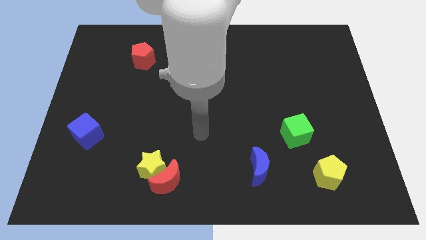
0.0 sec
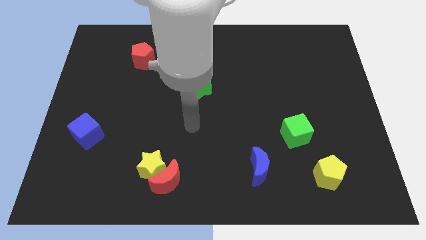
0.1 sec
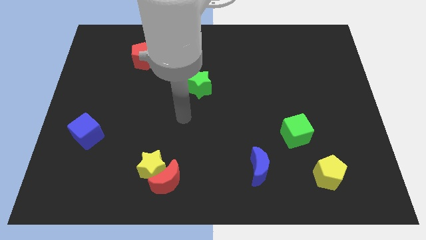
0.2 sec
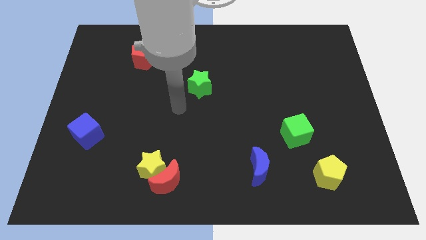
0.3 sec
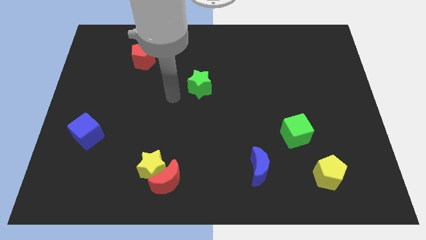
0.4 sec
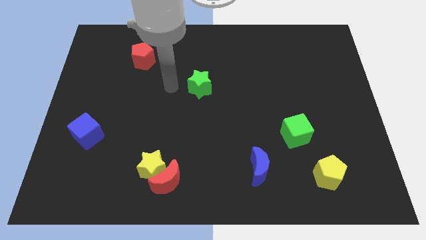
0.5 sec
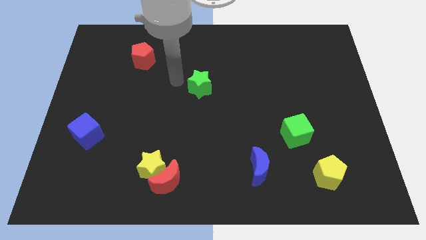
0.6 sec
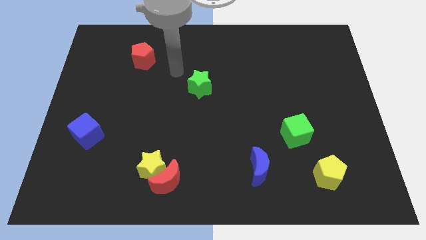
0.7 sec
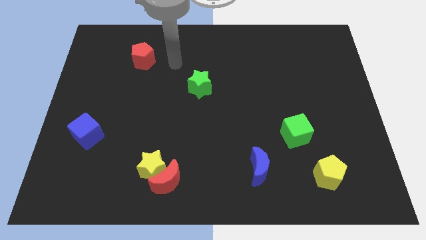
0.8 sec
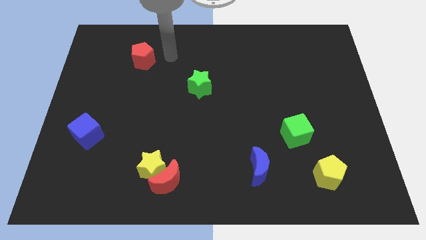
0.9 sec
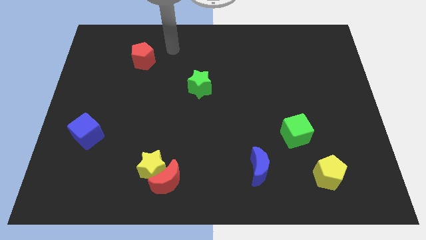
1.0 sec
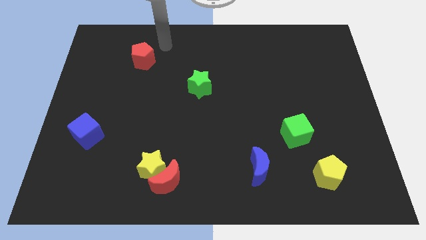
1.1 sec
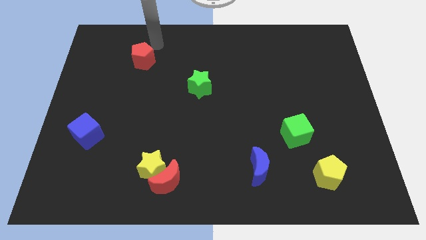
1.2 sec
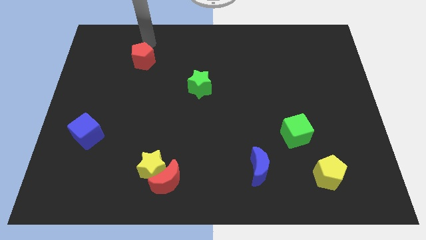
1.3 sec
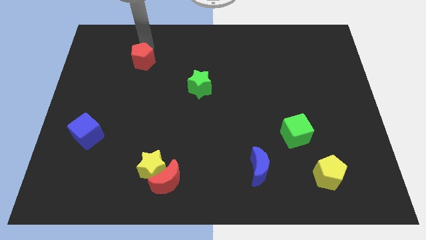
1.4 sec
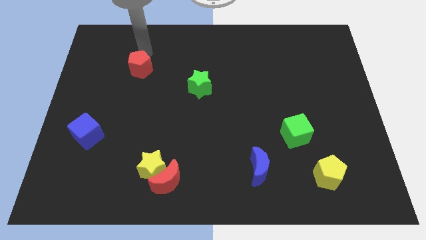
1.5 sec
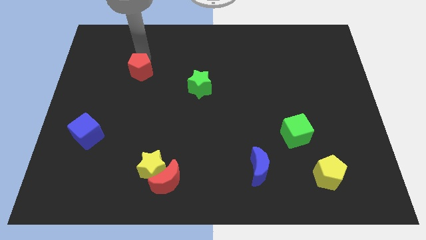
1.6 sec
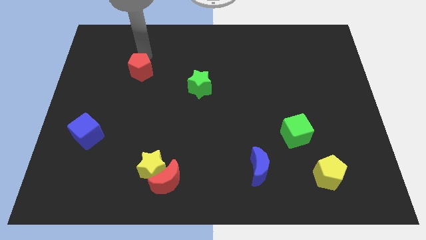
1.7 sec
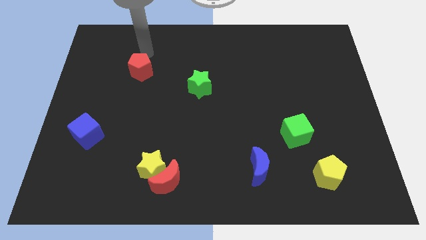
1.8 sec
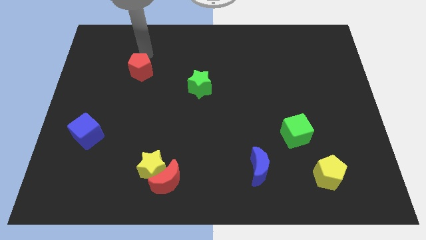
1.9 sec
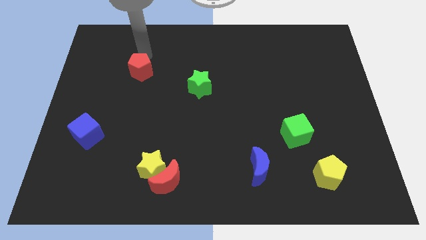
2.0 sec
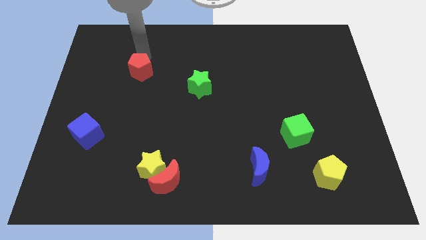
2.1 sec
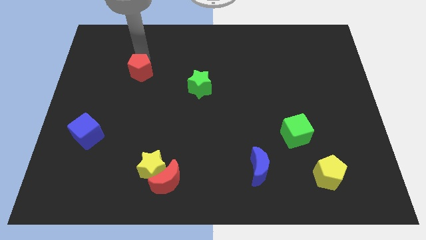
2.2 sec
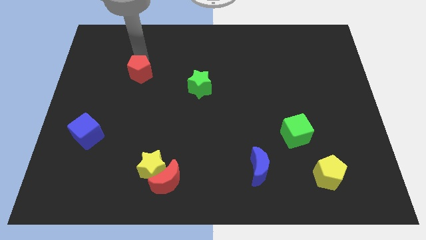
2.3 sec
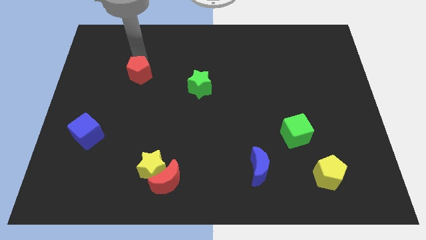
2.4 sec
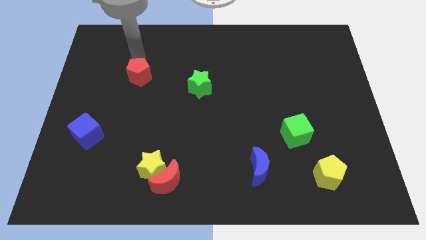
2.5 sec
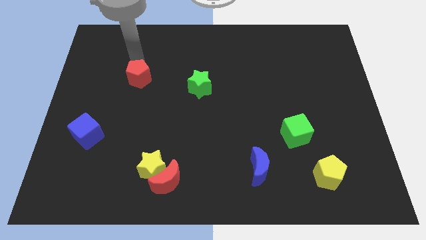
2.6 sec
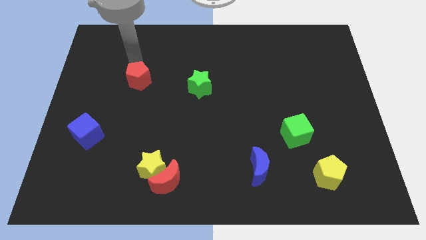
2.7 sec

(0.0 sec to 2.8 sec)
push the red pentagon a little downwards

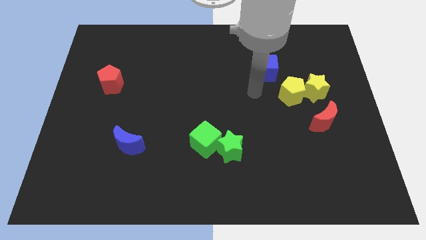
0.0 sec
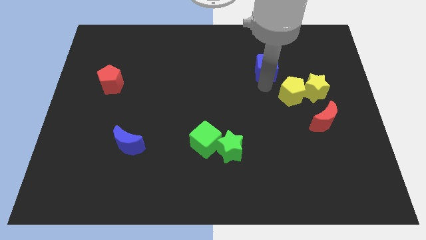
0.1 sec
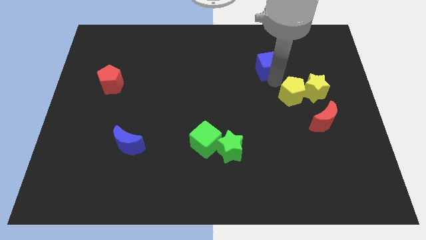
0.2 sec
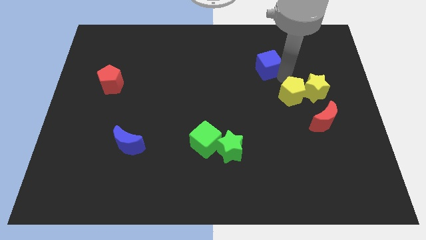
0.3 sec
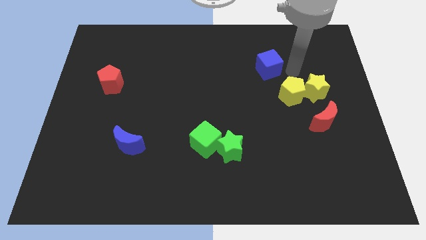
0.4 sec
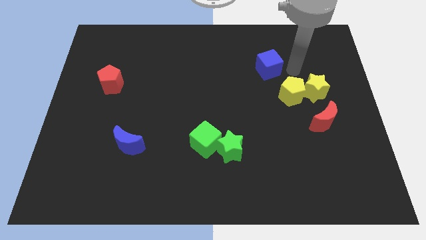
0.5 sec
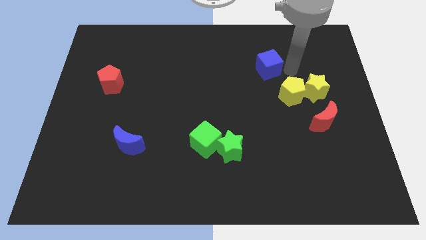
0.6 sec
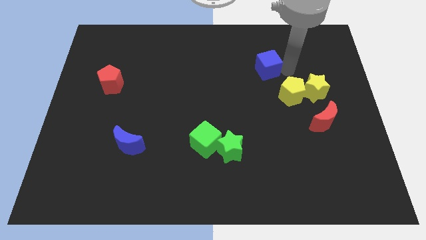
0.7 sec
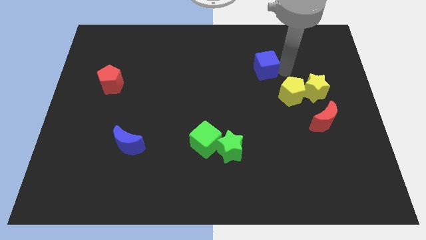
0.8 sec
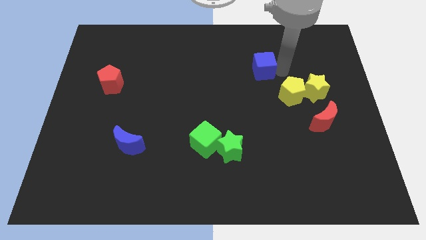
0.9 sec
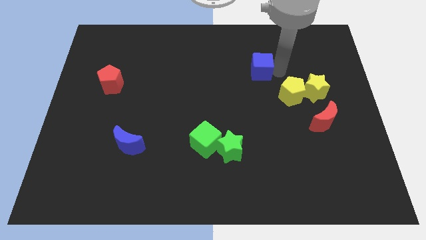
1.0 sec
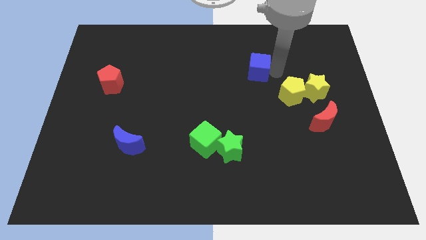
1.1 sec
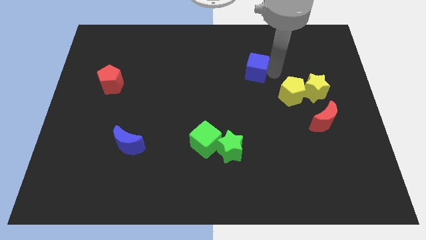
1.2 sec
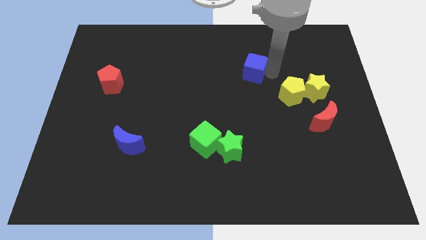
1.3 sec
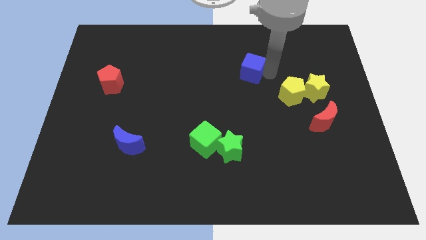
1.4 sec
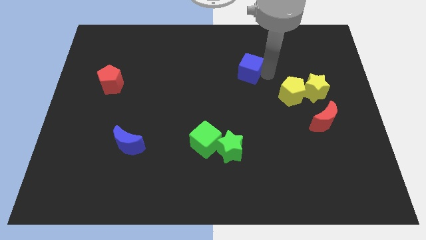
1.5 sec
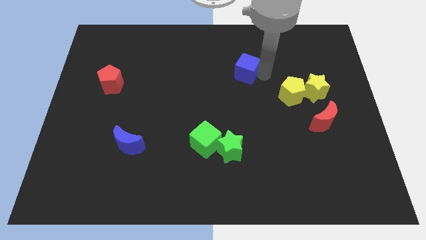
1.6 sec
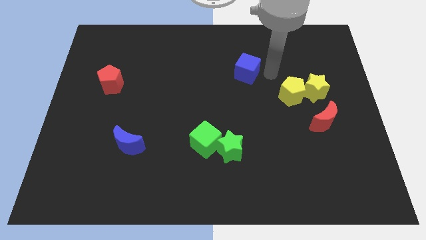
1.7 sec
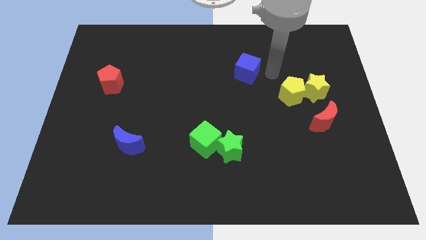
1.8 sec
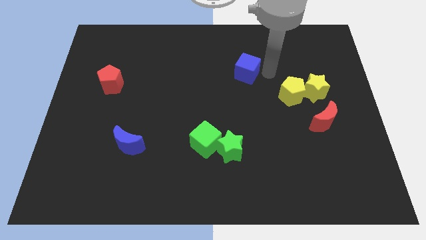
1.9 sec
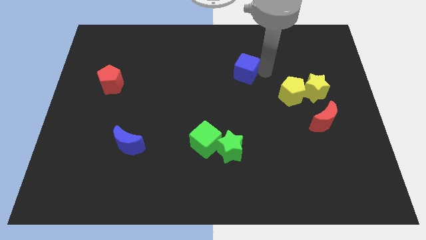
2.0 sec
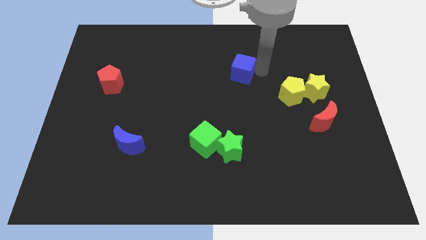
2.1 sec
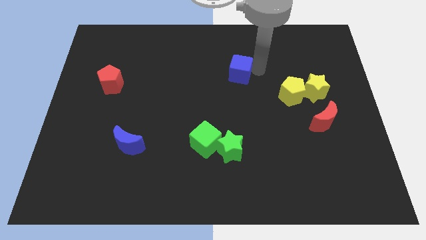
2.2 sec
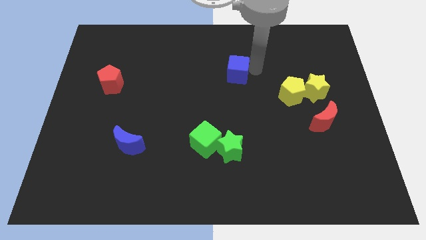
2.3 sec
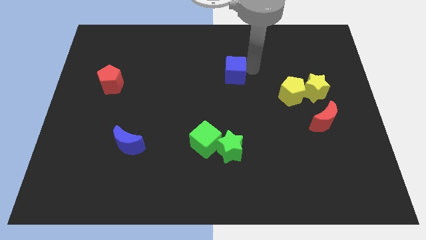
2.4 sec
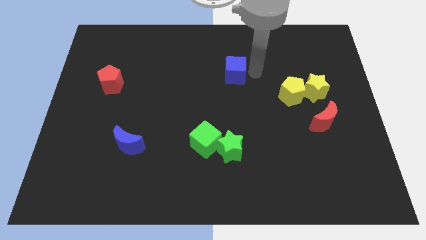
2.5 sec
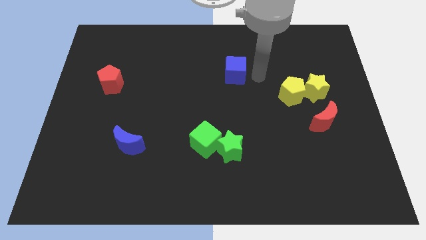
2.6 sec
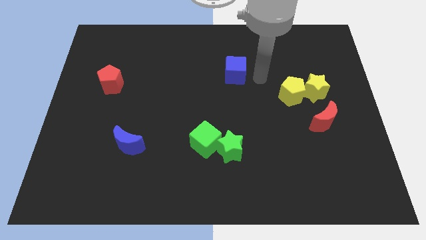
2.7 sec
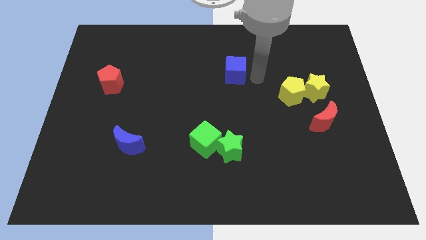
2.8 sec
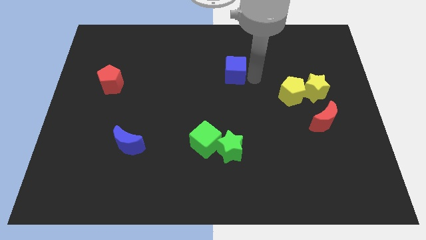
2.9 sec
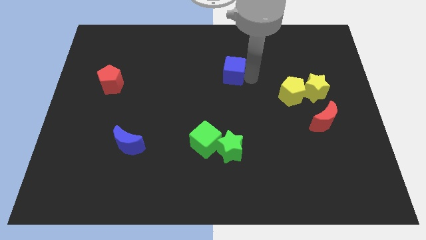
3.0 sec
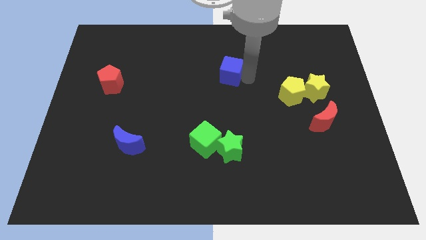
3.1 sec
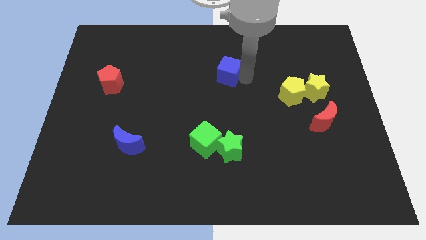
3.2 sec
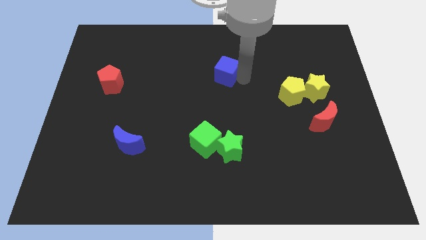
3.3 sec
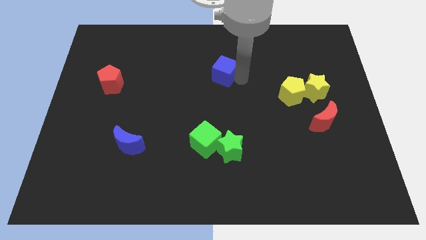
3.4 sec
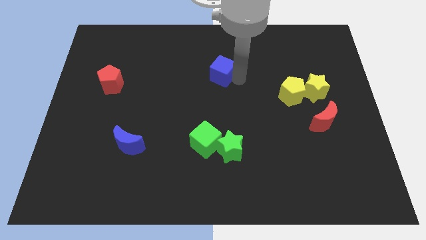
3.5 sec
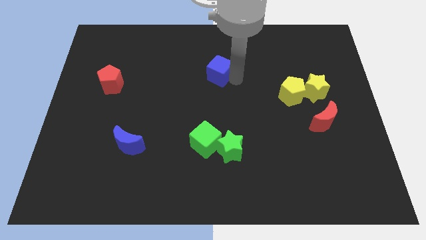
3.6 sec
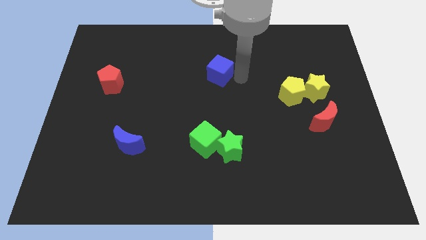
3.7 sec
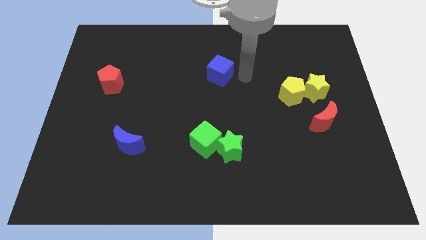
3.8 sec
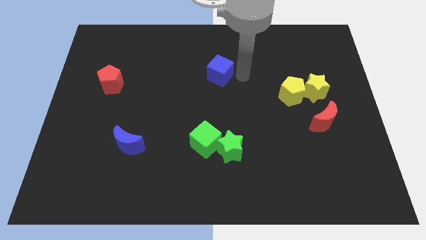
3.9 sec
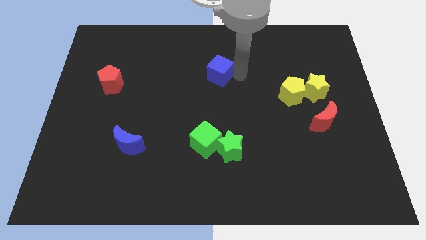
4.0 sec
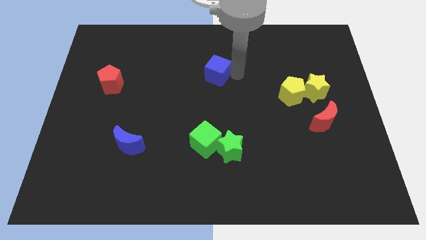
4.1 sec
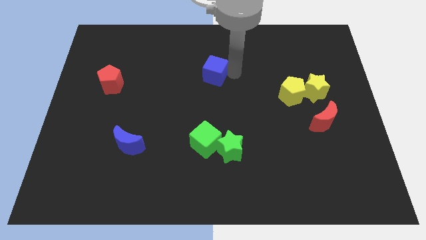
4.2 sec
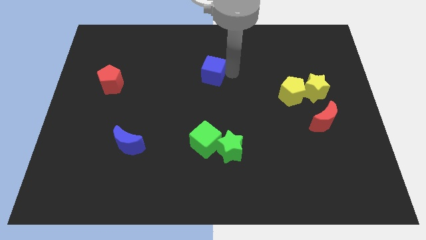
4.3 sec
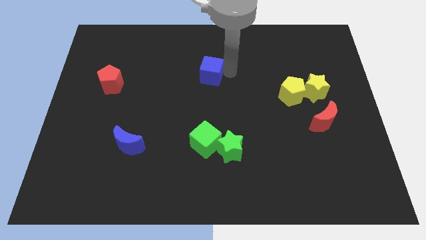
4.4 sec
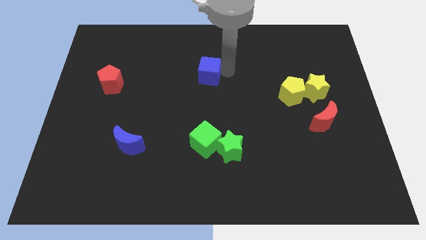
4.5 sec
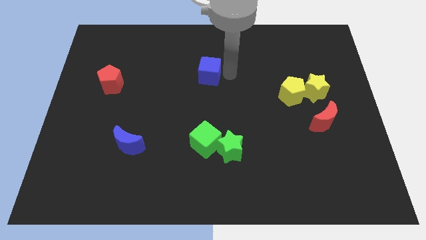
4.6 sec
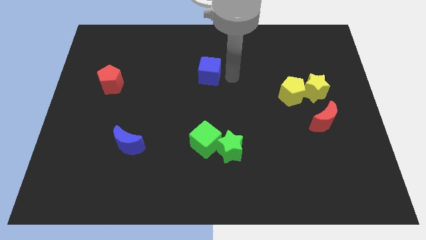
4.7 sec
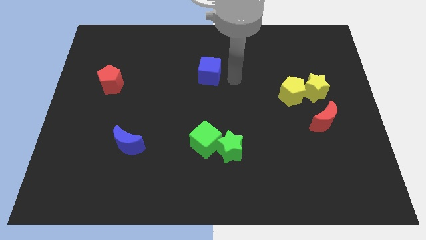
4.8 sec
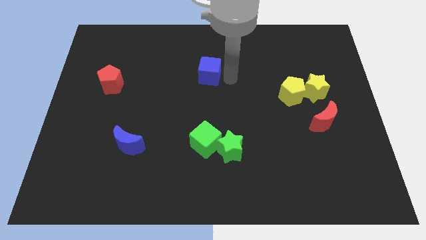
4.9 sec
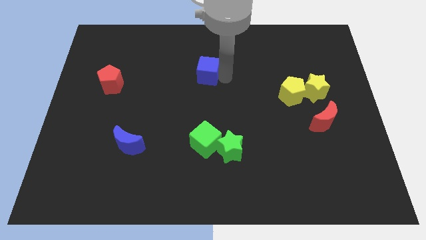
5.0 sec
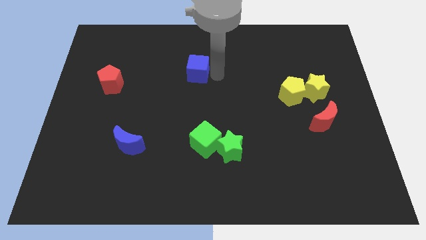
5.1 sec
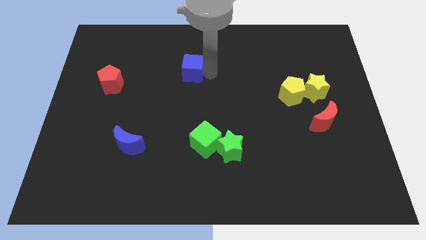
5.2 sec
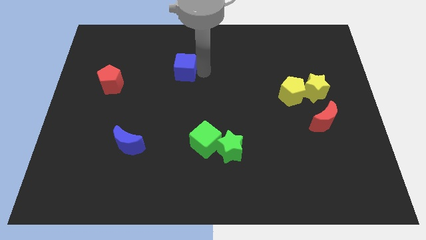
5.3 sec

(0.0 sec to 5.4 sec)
move the blue cube left
